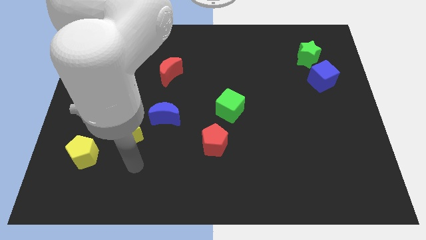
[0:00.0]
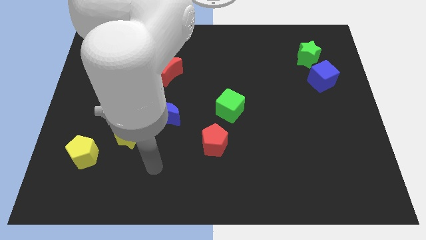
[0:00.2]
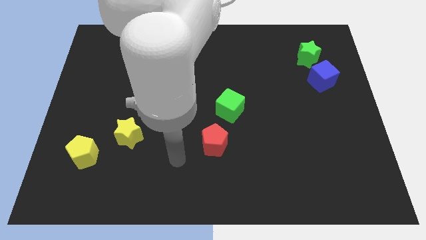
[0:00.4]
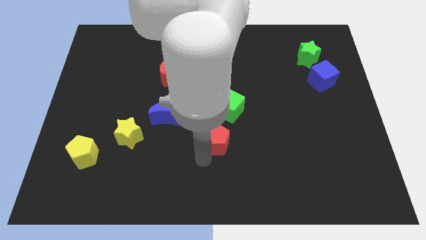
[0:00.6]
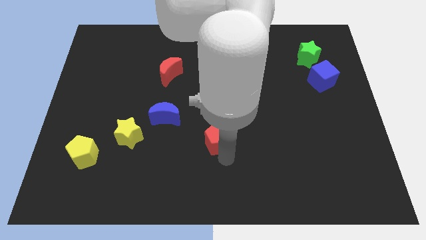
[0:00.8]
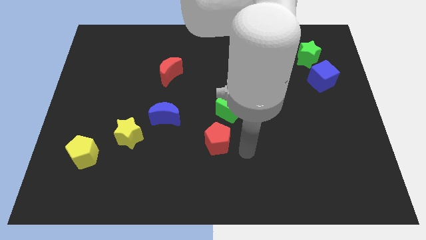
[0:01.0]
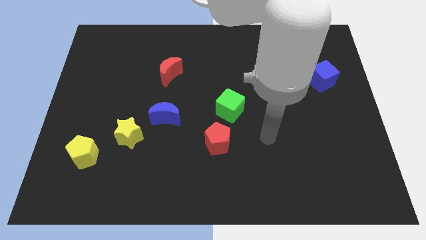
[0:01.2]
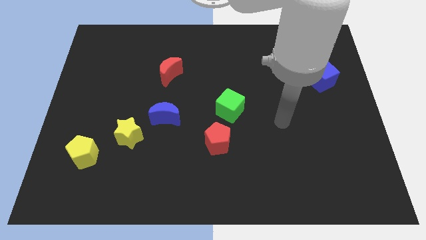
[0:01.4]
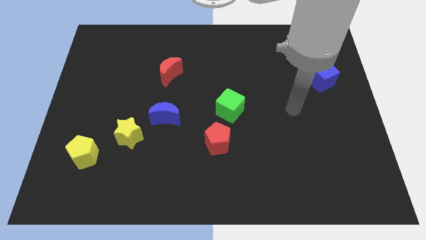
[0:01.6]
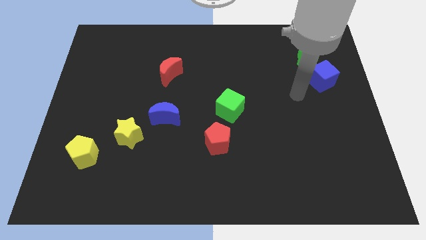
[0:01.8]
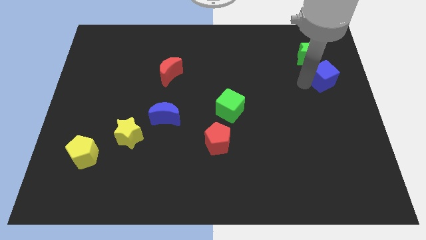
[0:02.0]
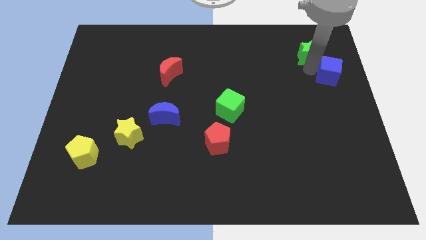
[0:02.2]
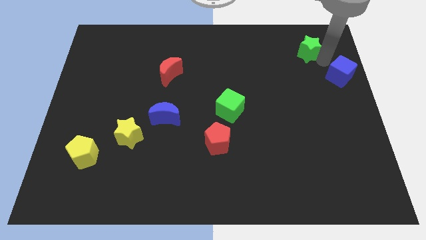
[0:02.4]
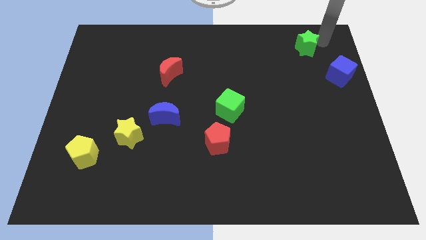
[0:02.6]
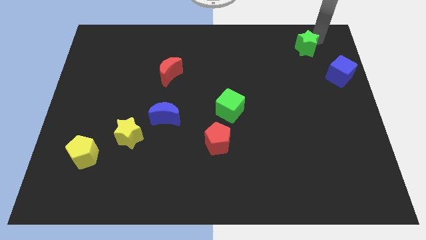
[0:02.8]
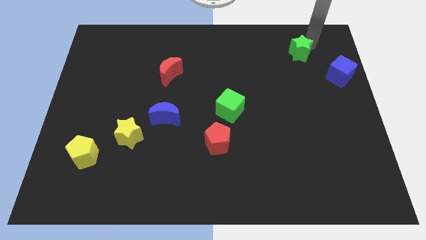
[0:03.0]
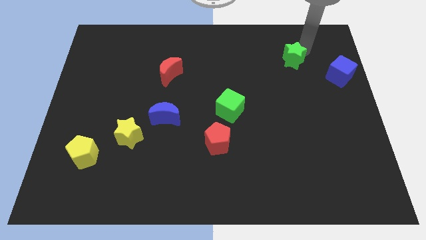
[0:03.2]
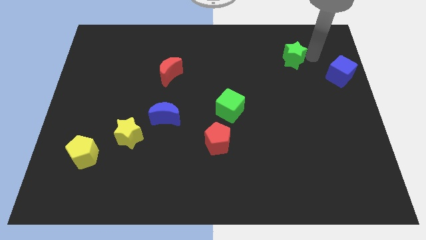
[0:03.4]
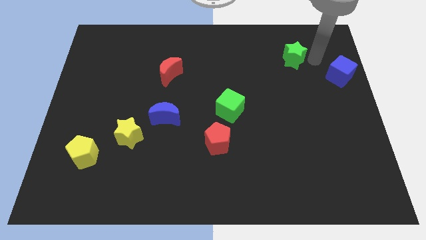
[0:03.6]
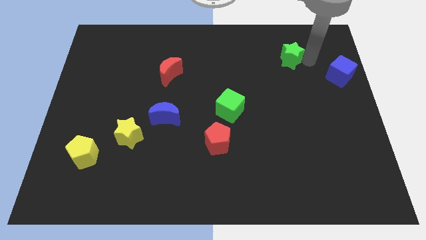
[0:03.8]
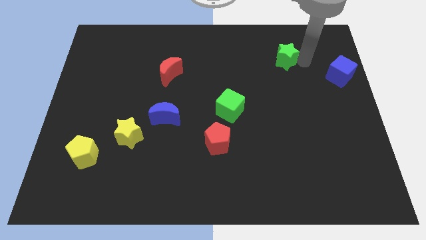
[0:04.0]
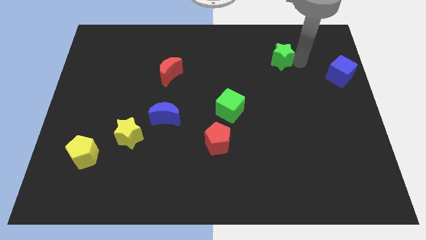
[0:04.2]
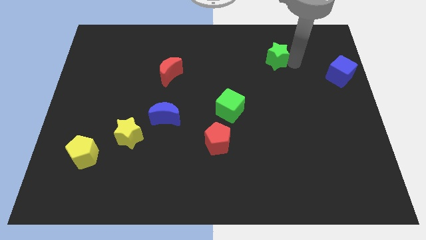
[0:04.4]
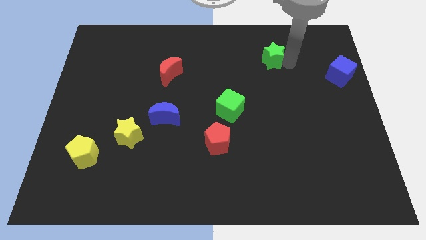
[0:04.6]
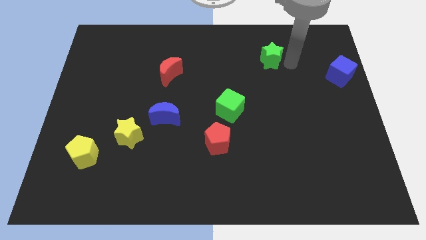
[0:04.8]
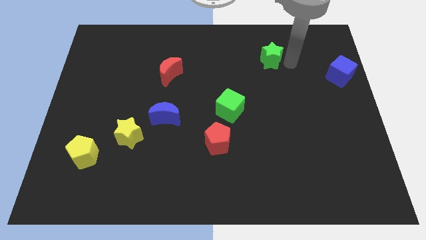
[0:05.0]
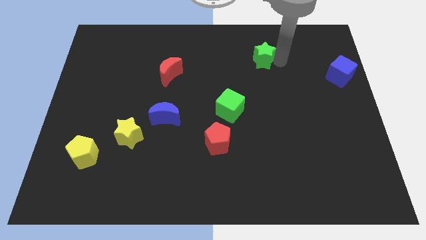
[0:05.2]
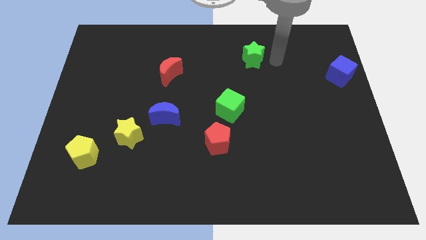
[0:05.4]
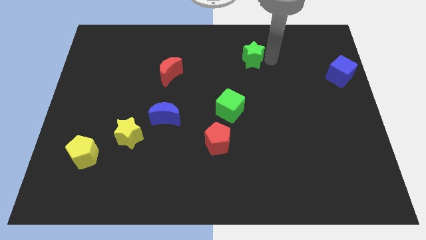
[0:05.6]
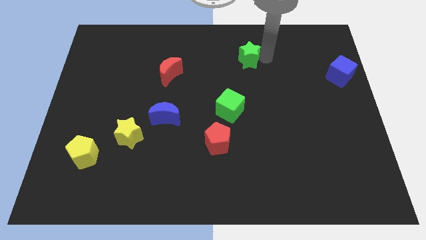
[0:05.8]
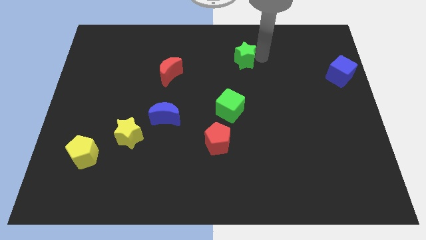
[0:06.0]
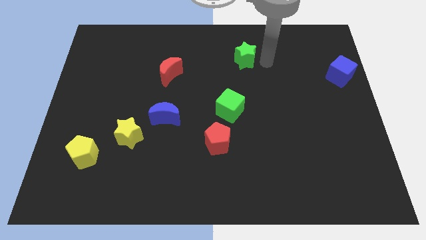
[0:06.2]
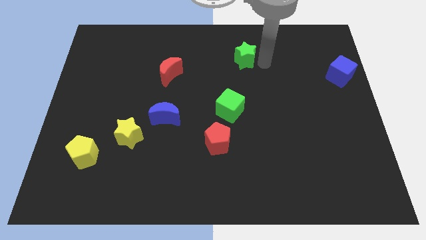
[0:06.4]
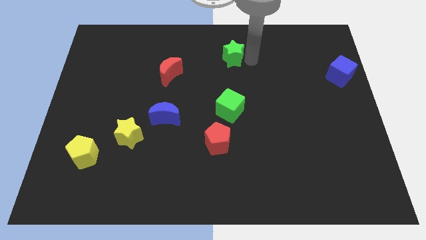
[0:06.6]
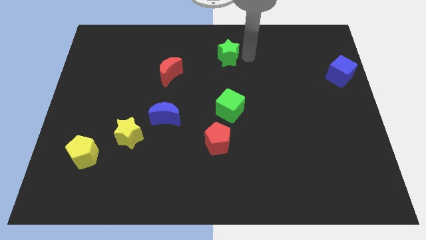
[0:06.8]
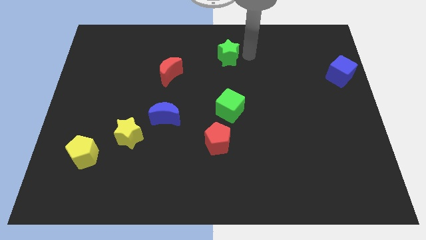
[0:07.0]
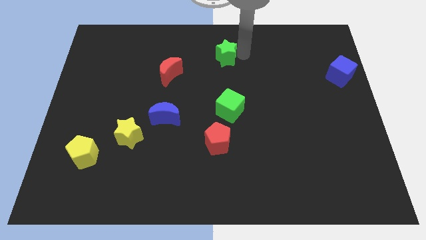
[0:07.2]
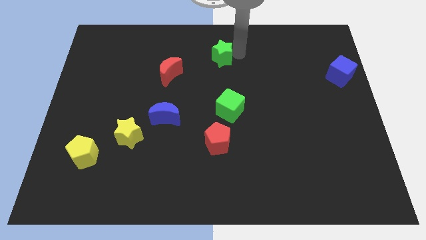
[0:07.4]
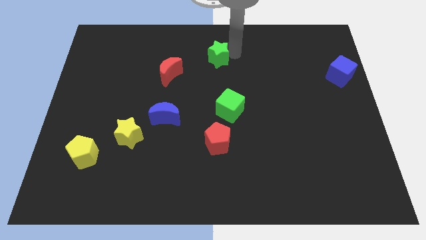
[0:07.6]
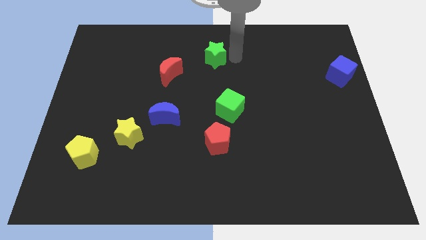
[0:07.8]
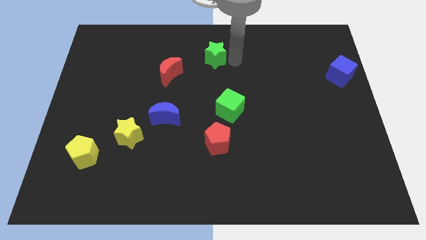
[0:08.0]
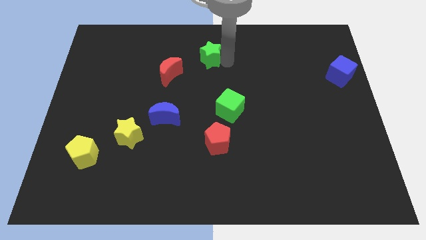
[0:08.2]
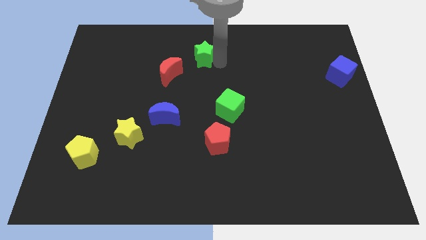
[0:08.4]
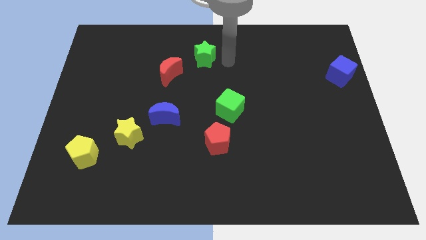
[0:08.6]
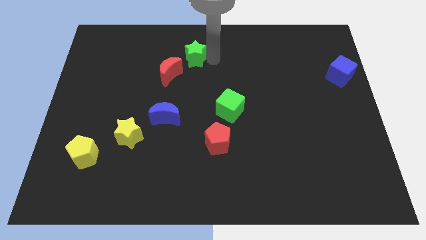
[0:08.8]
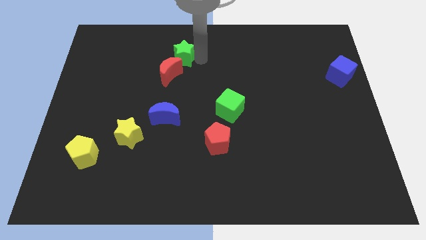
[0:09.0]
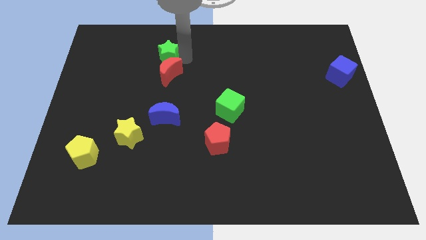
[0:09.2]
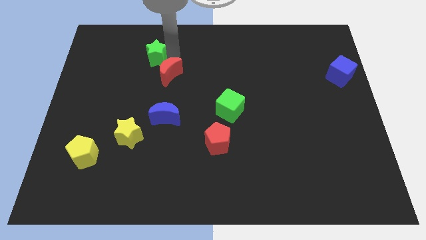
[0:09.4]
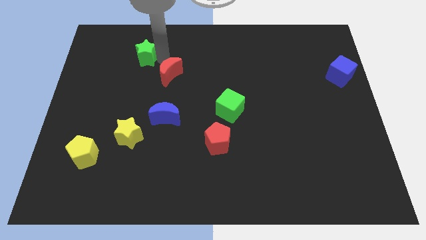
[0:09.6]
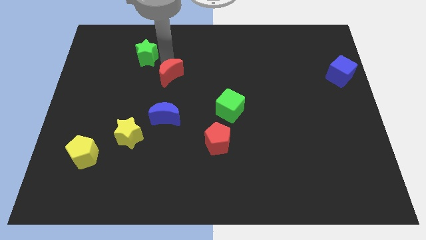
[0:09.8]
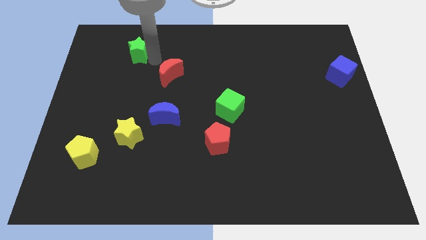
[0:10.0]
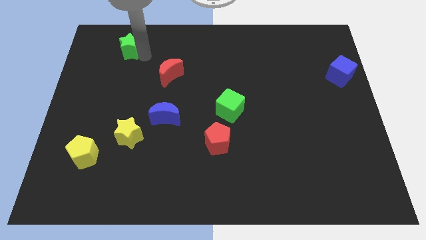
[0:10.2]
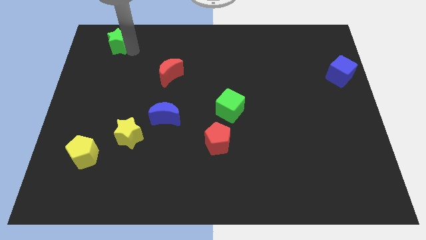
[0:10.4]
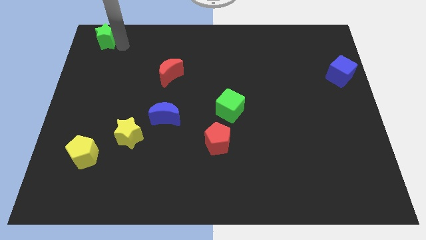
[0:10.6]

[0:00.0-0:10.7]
move the green star to the upper left corner

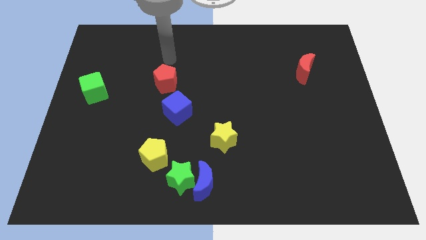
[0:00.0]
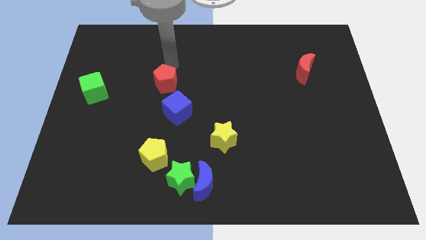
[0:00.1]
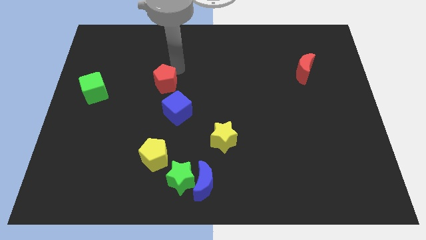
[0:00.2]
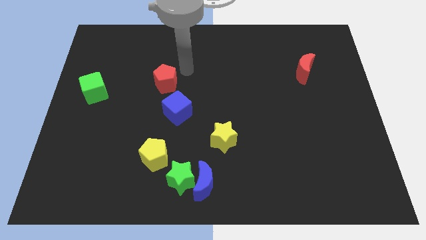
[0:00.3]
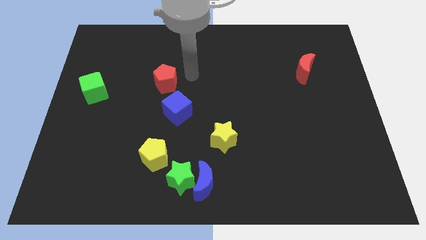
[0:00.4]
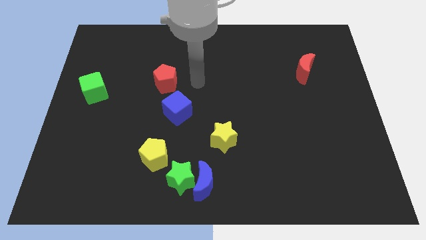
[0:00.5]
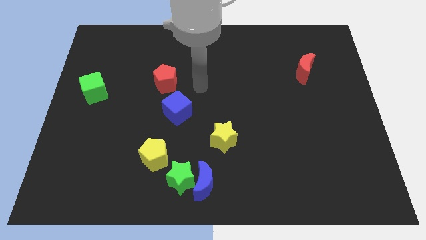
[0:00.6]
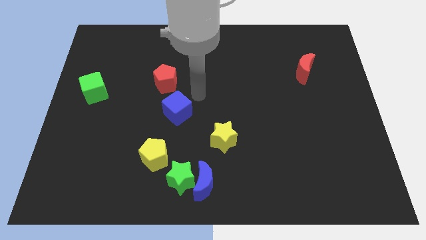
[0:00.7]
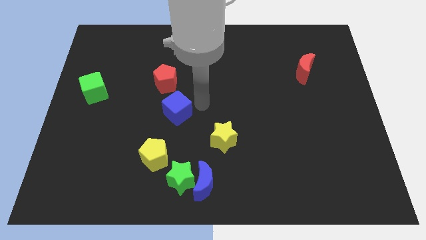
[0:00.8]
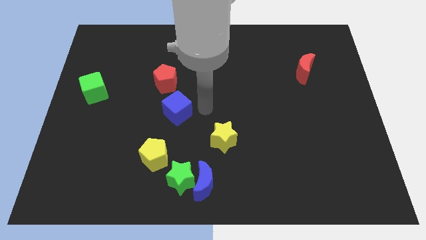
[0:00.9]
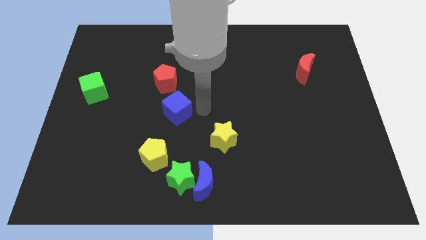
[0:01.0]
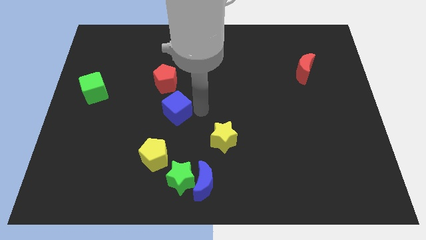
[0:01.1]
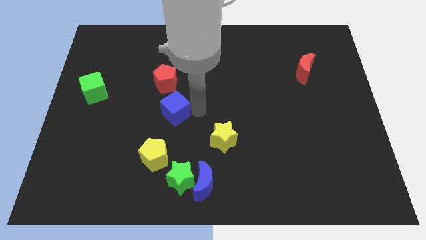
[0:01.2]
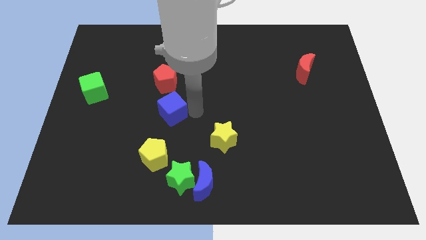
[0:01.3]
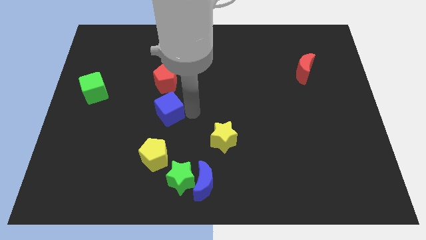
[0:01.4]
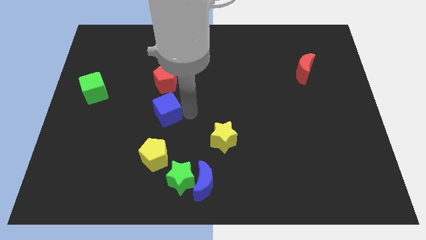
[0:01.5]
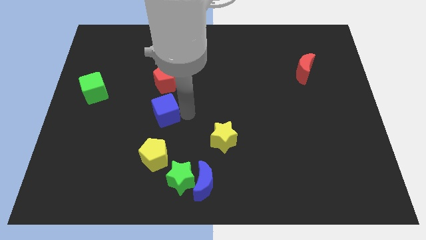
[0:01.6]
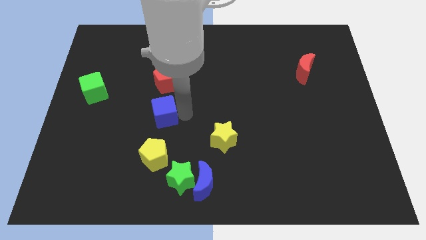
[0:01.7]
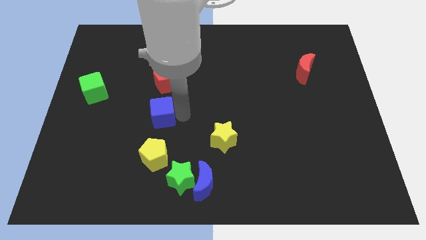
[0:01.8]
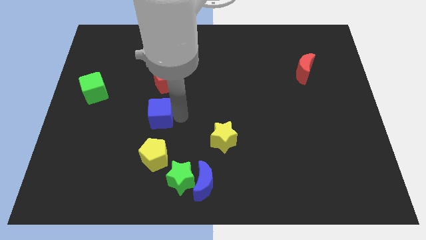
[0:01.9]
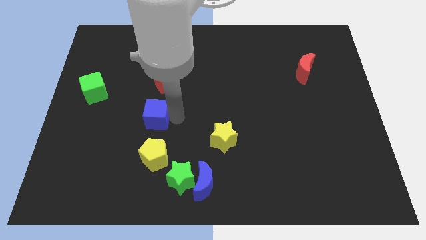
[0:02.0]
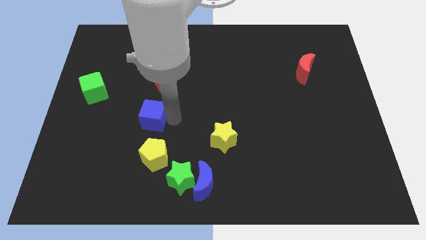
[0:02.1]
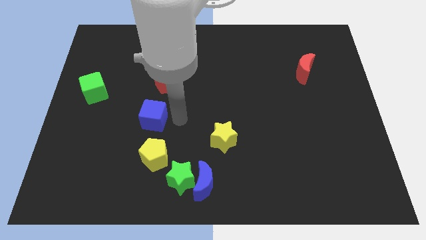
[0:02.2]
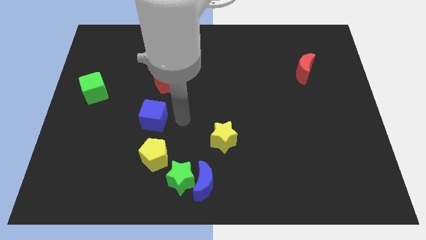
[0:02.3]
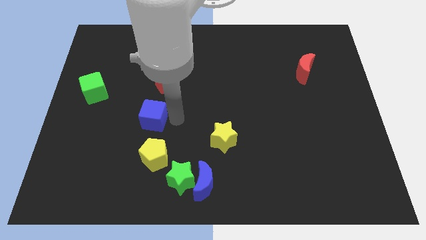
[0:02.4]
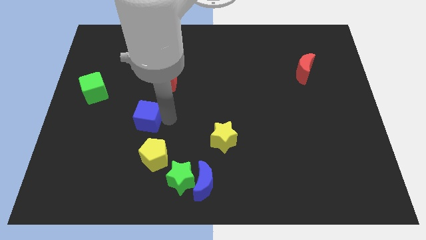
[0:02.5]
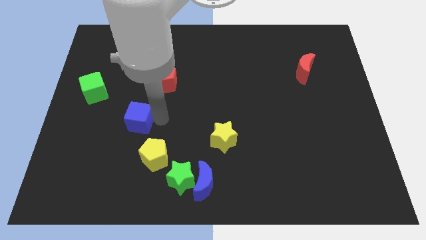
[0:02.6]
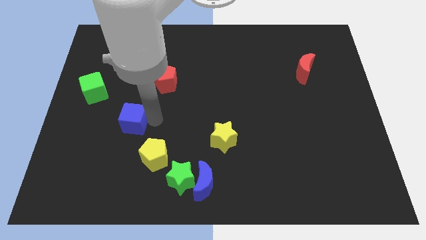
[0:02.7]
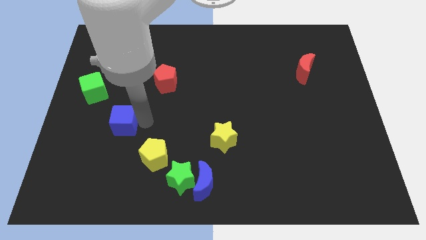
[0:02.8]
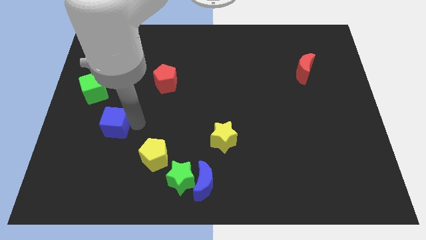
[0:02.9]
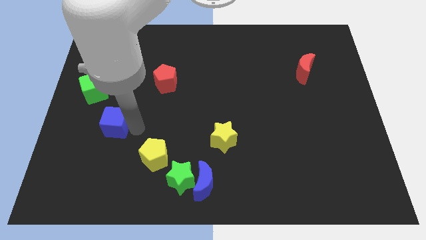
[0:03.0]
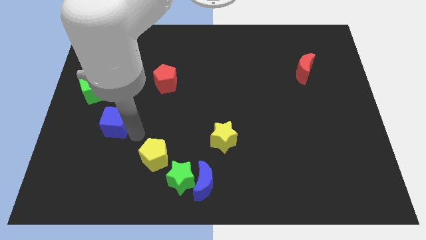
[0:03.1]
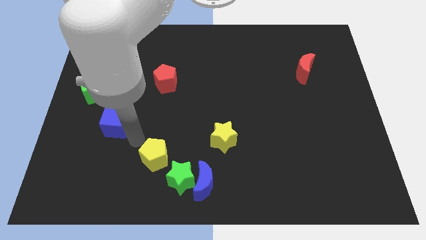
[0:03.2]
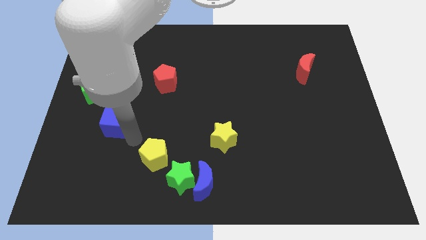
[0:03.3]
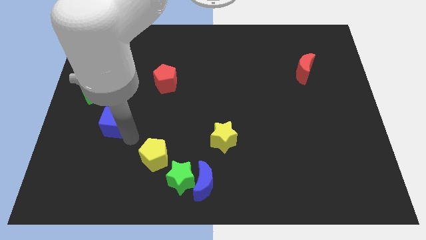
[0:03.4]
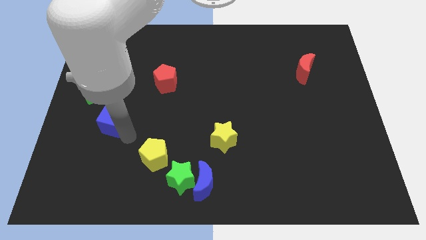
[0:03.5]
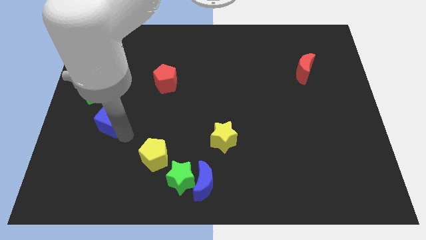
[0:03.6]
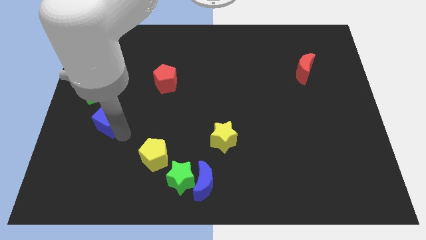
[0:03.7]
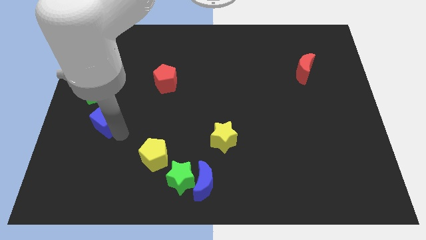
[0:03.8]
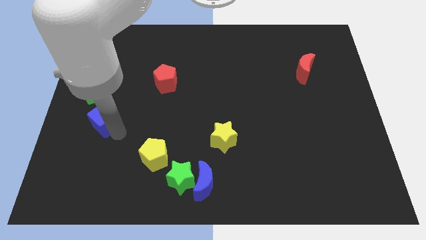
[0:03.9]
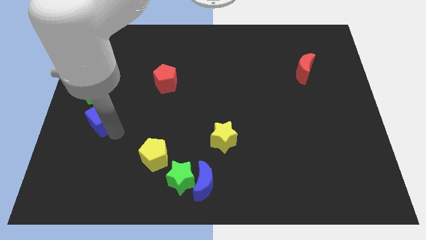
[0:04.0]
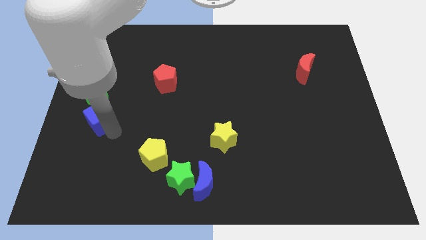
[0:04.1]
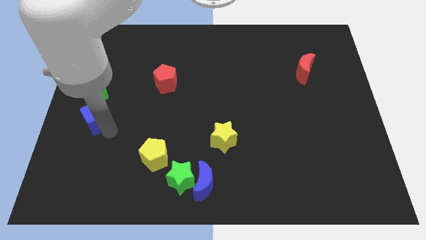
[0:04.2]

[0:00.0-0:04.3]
put the blue cube to the left side of the board
